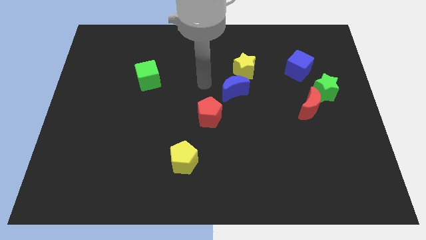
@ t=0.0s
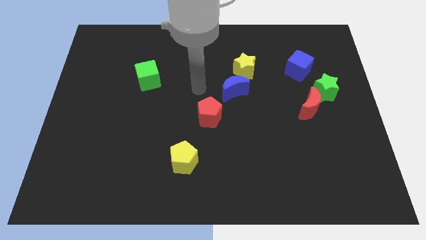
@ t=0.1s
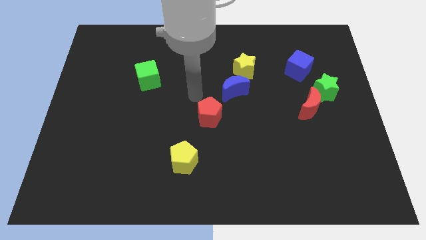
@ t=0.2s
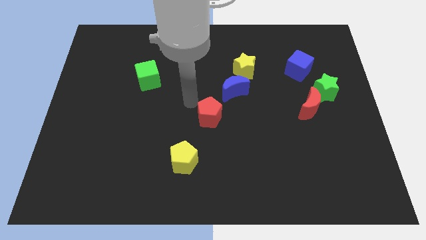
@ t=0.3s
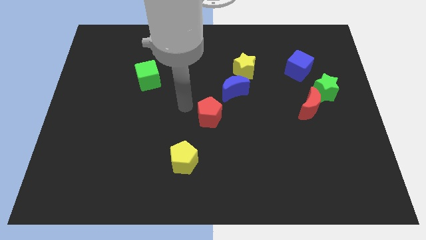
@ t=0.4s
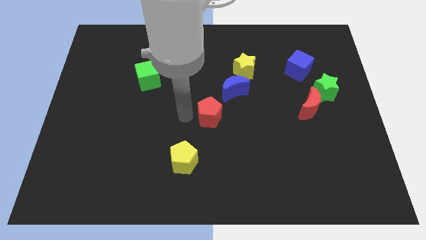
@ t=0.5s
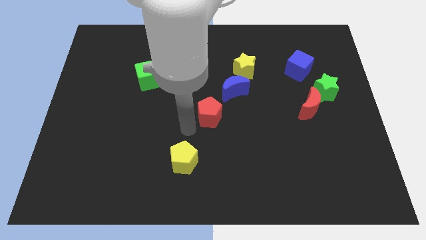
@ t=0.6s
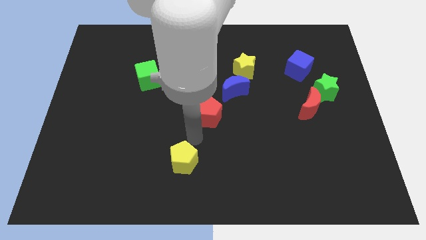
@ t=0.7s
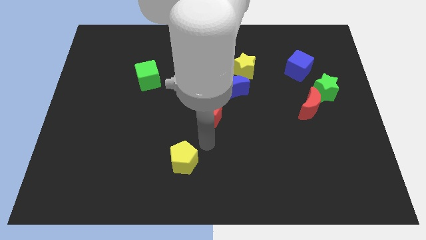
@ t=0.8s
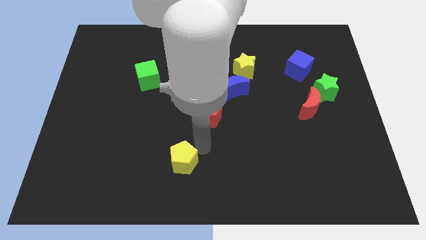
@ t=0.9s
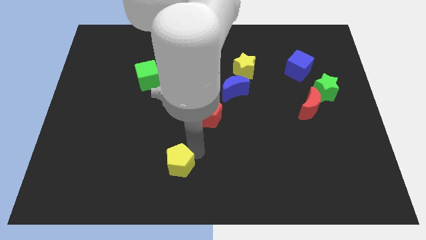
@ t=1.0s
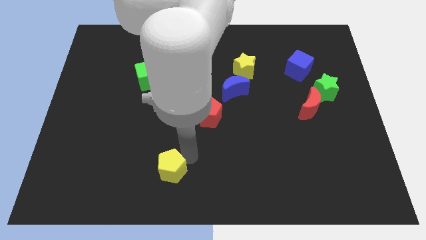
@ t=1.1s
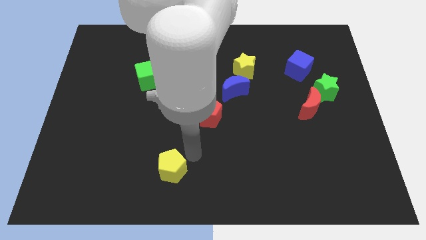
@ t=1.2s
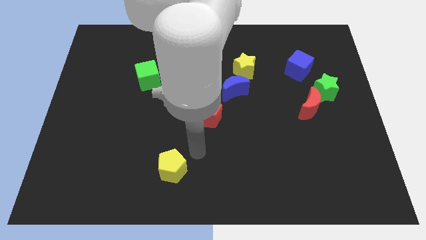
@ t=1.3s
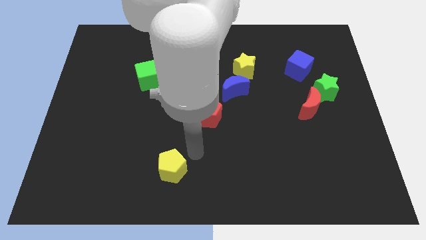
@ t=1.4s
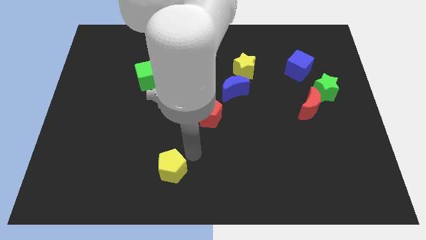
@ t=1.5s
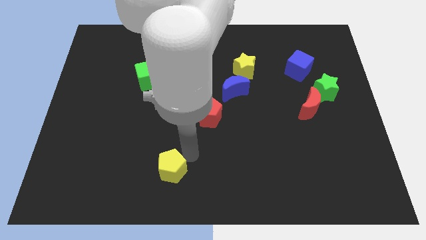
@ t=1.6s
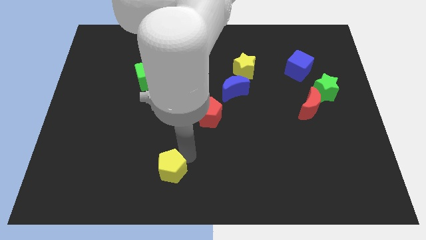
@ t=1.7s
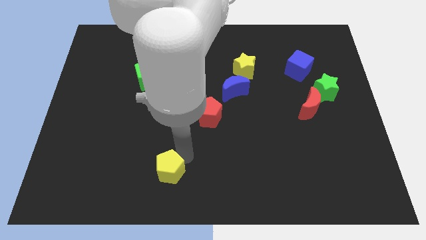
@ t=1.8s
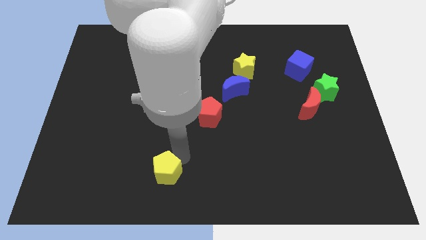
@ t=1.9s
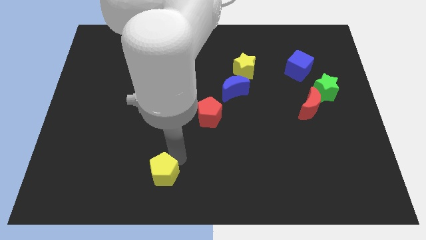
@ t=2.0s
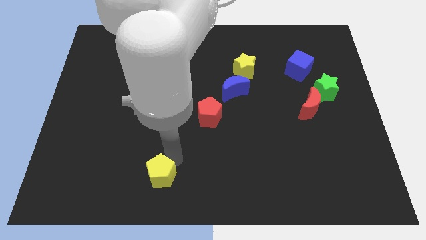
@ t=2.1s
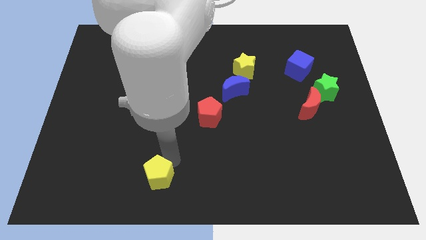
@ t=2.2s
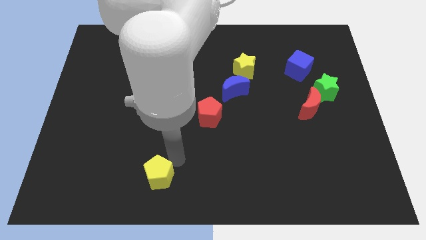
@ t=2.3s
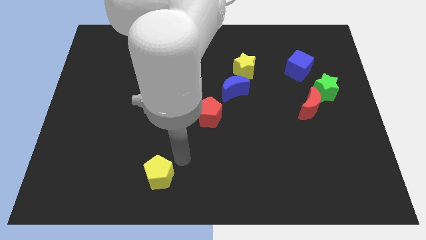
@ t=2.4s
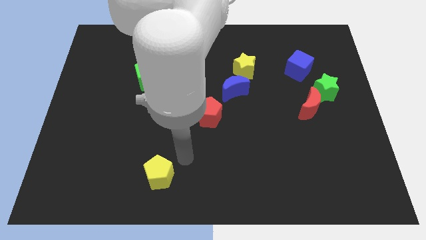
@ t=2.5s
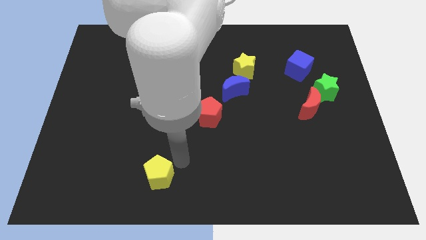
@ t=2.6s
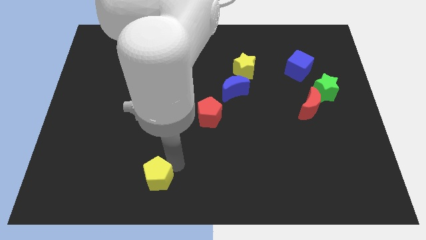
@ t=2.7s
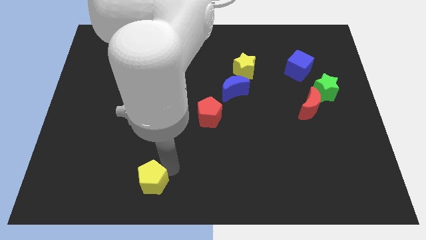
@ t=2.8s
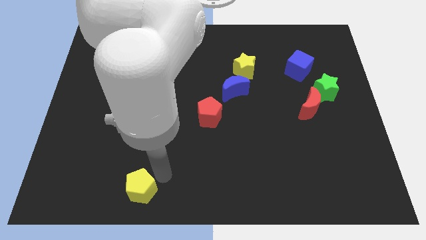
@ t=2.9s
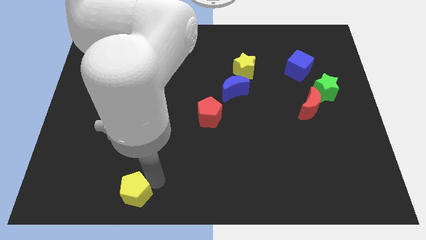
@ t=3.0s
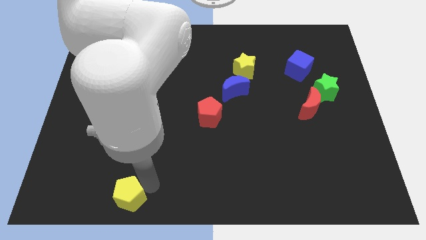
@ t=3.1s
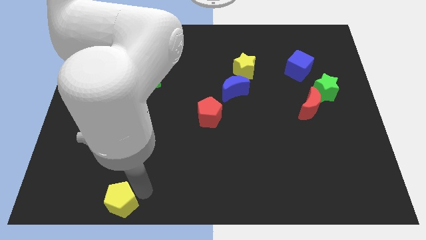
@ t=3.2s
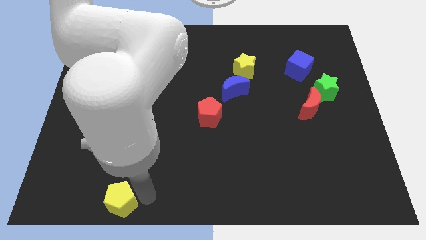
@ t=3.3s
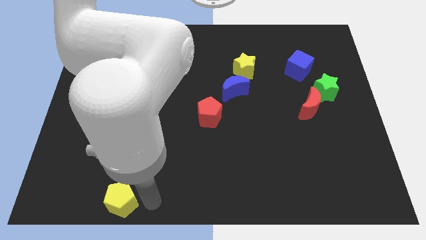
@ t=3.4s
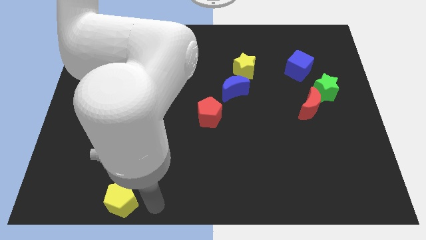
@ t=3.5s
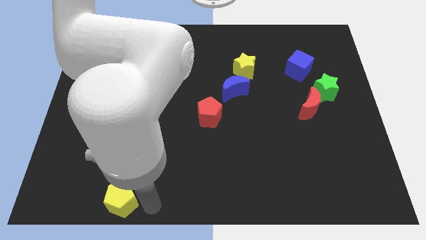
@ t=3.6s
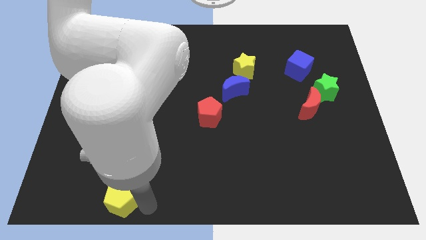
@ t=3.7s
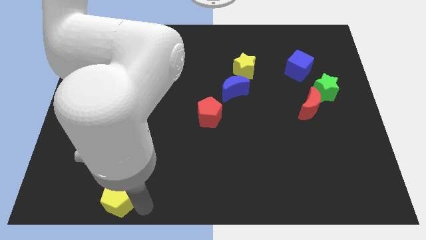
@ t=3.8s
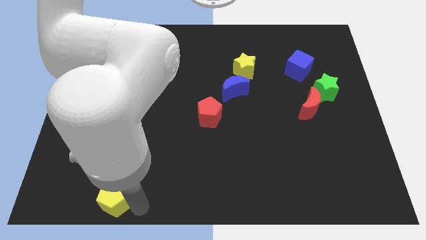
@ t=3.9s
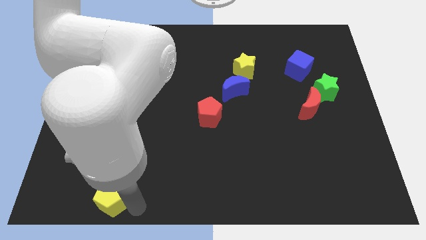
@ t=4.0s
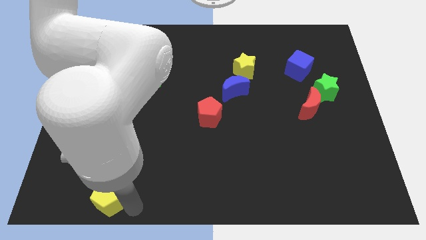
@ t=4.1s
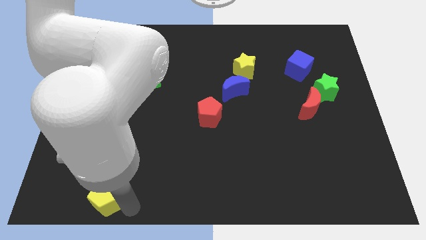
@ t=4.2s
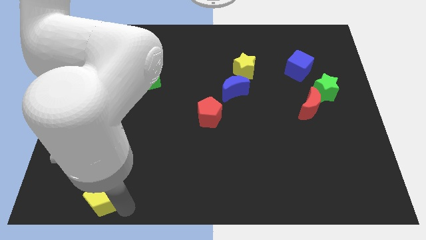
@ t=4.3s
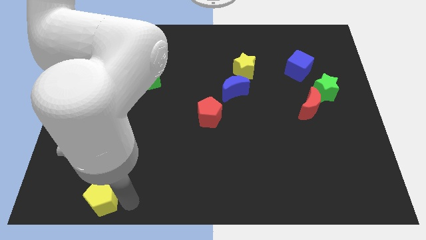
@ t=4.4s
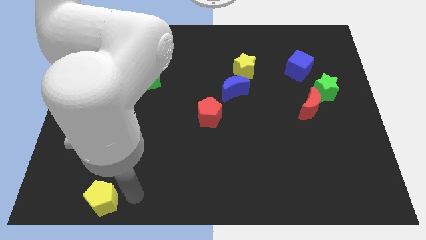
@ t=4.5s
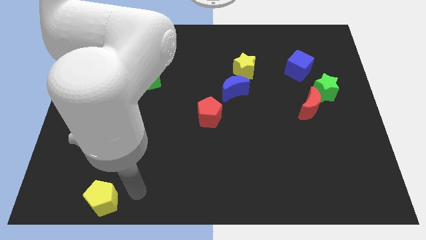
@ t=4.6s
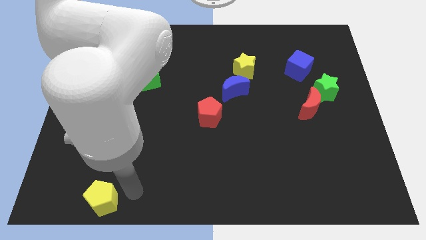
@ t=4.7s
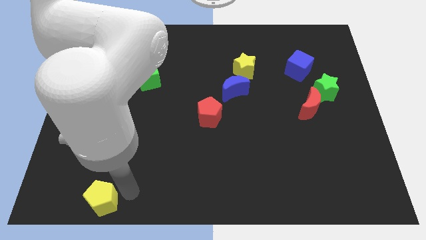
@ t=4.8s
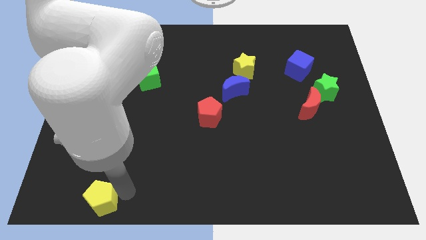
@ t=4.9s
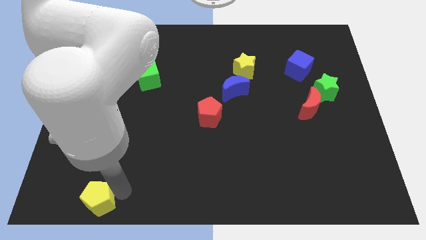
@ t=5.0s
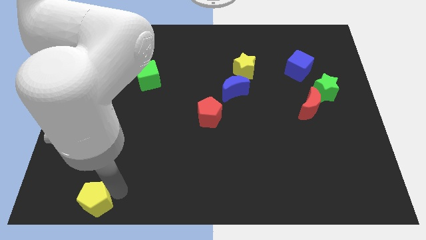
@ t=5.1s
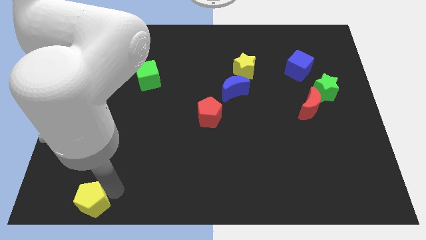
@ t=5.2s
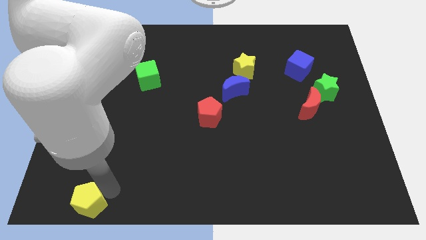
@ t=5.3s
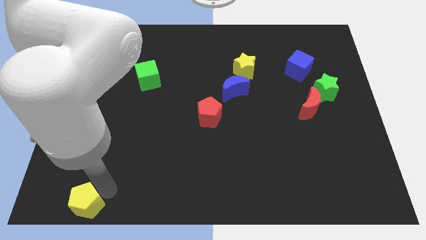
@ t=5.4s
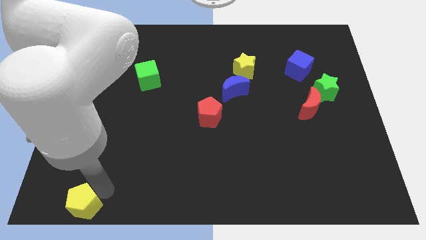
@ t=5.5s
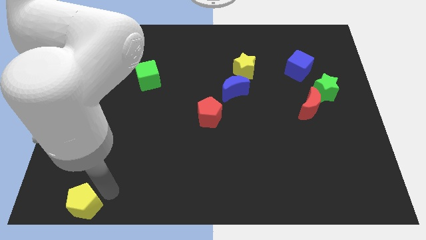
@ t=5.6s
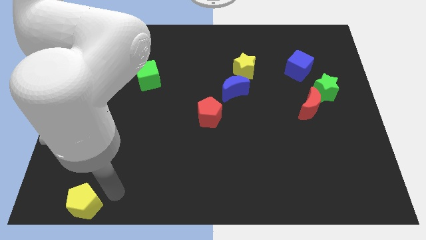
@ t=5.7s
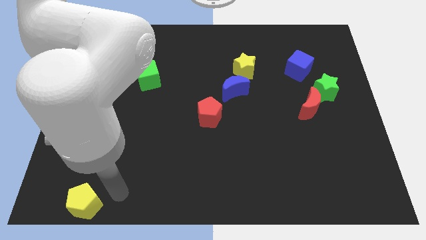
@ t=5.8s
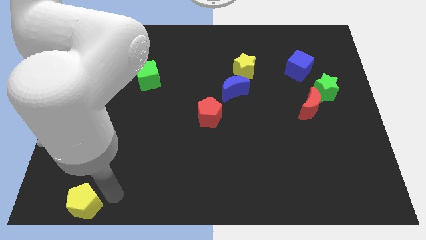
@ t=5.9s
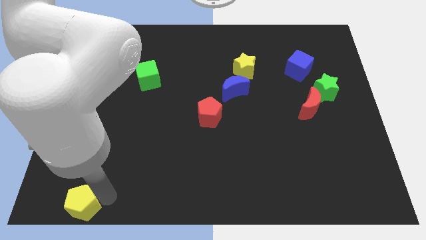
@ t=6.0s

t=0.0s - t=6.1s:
push the yellow pentagon to the bottom left
